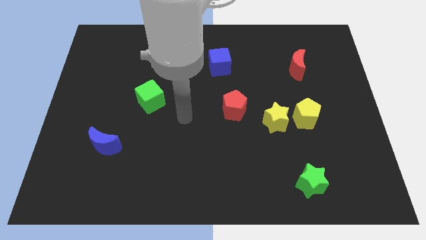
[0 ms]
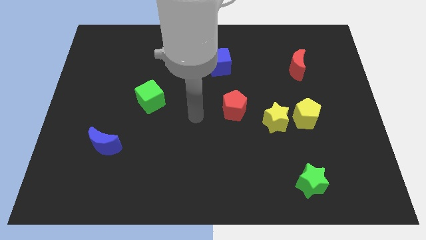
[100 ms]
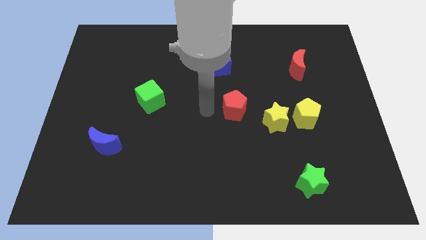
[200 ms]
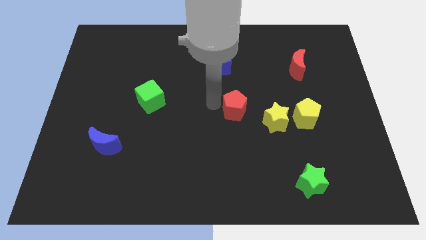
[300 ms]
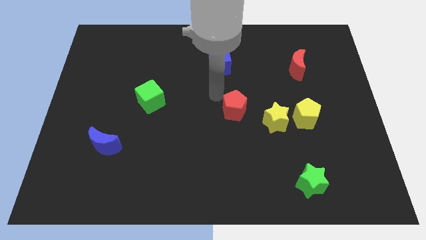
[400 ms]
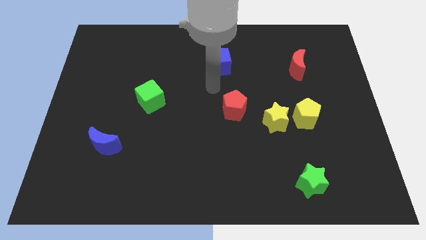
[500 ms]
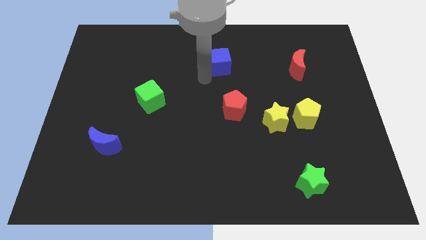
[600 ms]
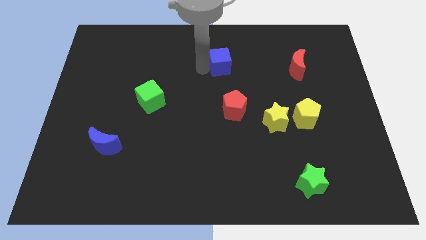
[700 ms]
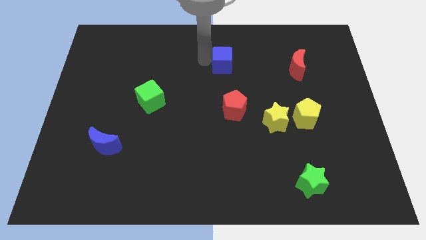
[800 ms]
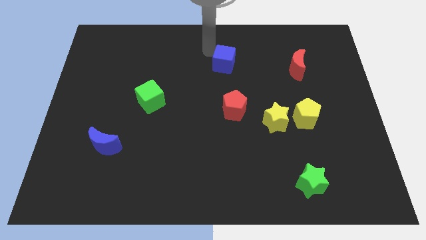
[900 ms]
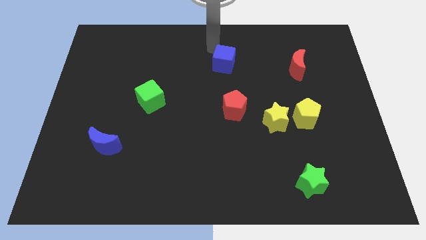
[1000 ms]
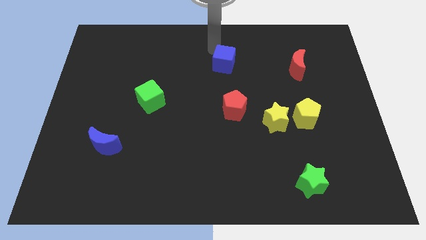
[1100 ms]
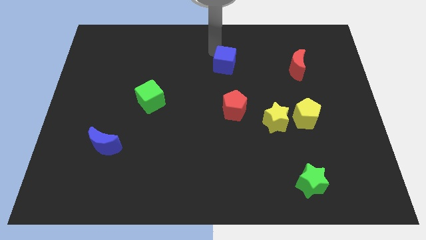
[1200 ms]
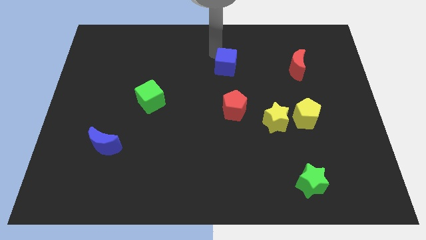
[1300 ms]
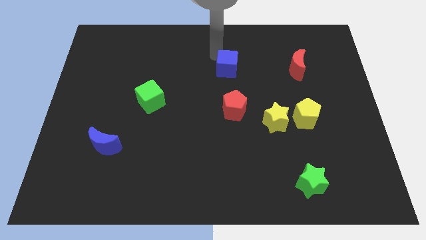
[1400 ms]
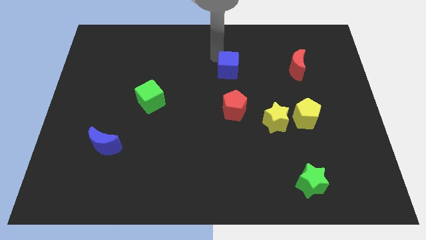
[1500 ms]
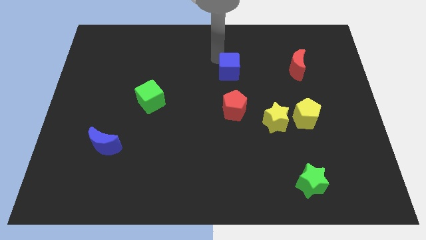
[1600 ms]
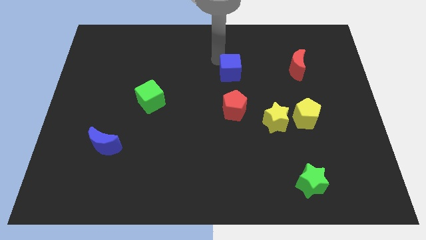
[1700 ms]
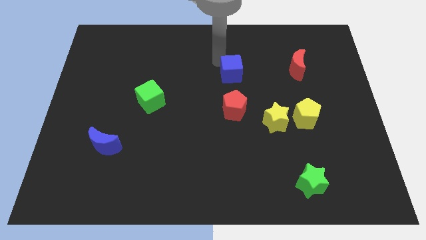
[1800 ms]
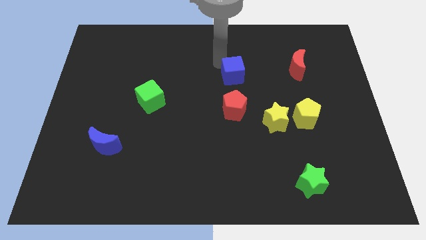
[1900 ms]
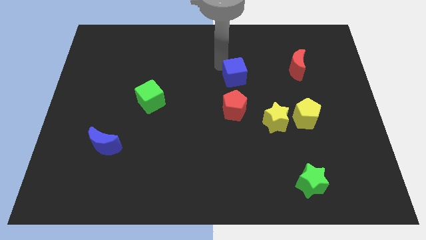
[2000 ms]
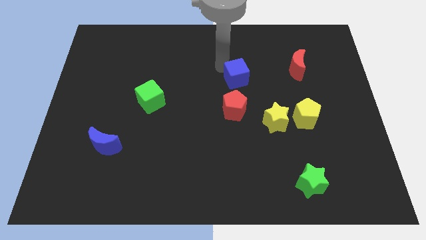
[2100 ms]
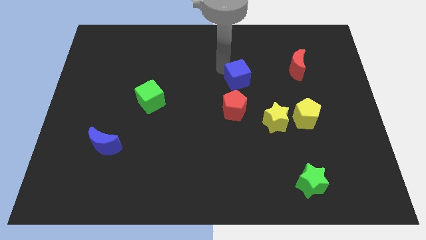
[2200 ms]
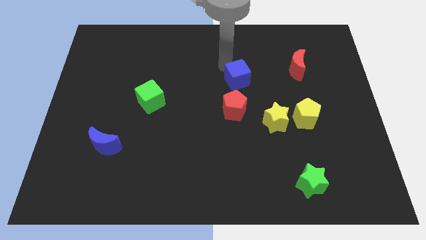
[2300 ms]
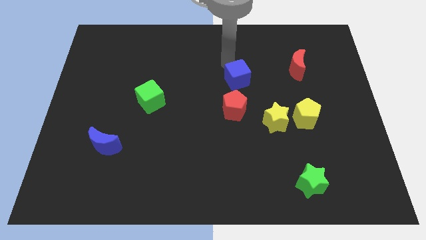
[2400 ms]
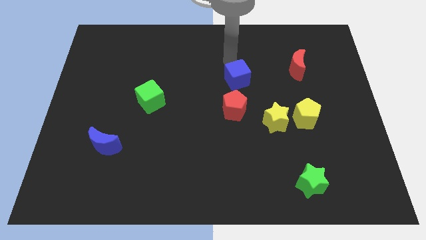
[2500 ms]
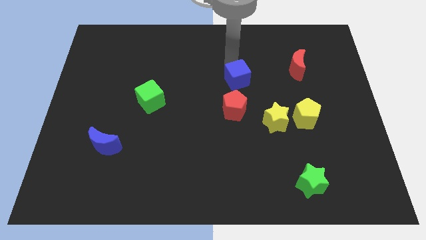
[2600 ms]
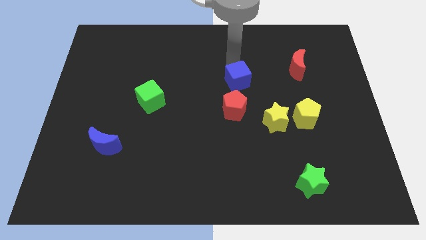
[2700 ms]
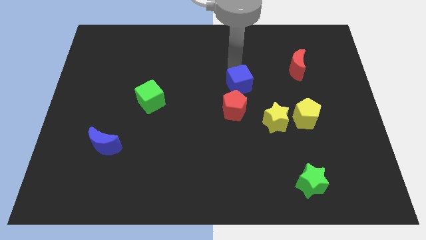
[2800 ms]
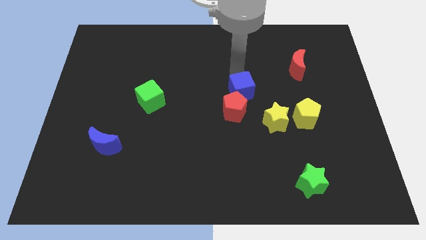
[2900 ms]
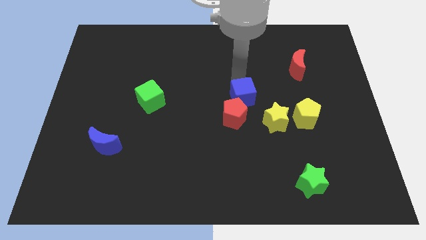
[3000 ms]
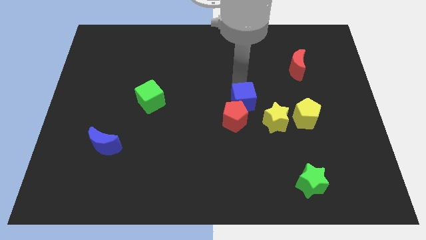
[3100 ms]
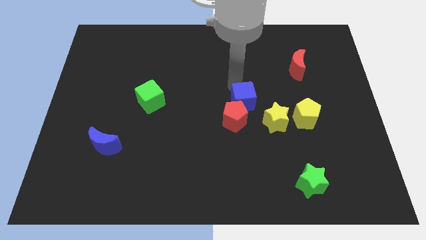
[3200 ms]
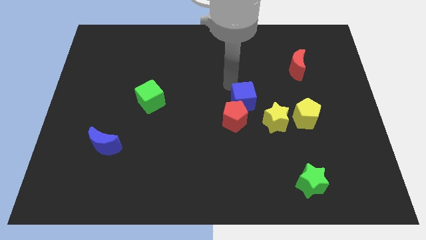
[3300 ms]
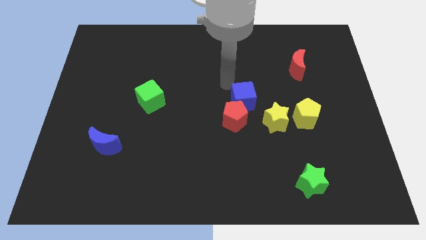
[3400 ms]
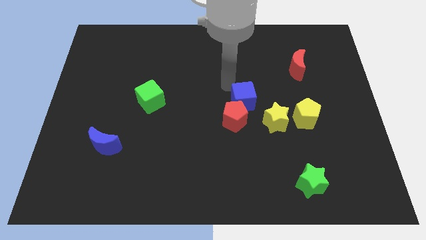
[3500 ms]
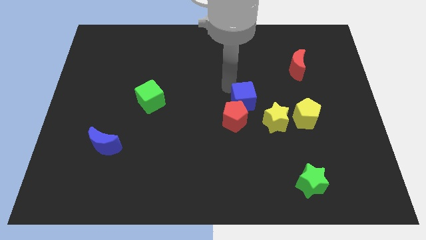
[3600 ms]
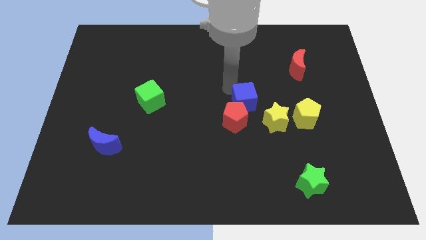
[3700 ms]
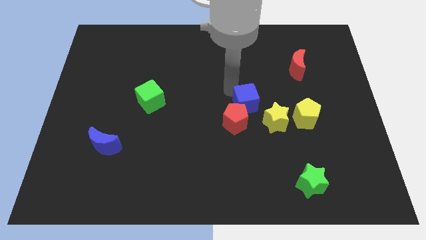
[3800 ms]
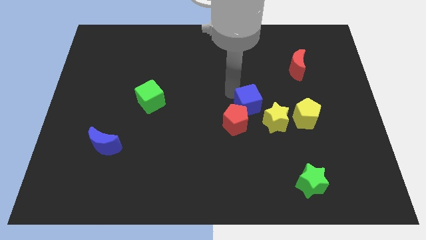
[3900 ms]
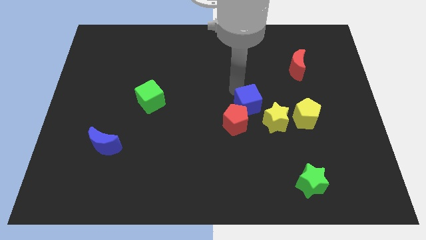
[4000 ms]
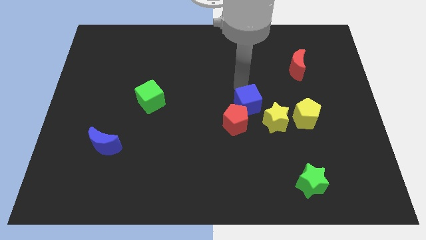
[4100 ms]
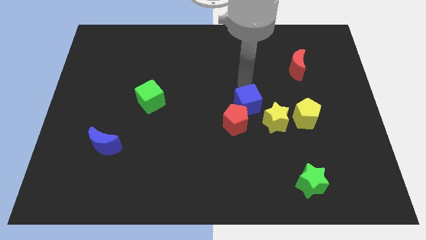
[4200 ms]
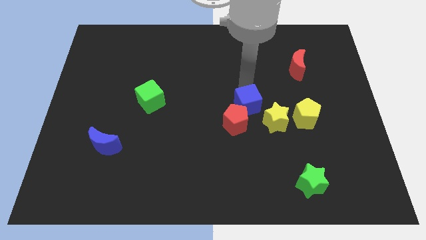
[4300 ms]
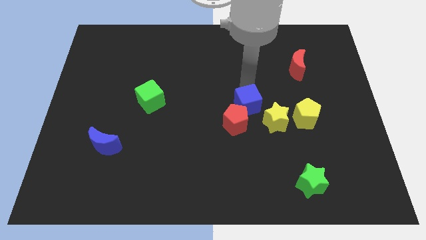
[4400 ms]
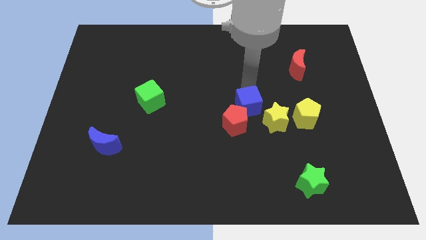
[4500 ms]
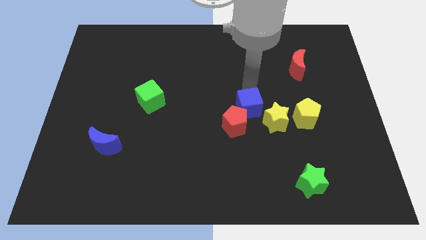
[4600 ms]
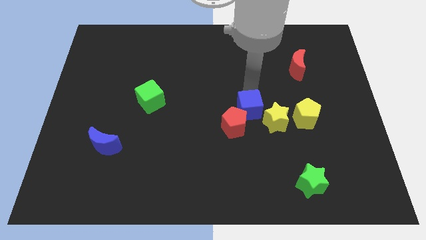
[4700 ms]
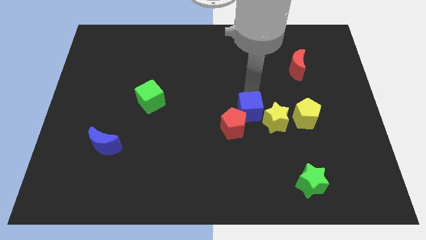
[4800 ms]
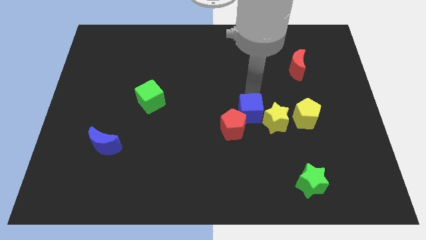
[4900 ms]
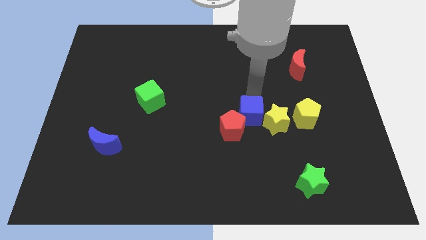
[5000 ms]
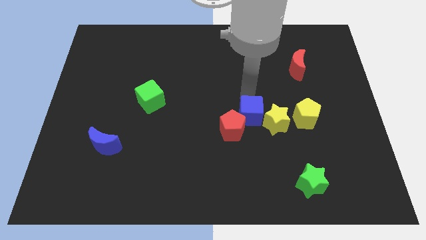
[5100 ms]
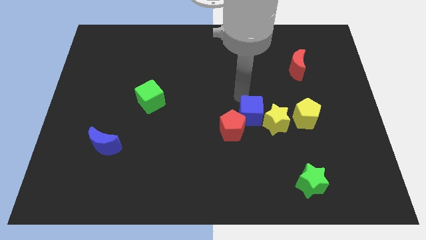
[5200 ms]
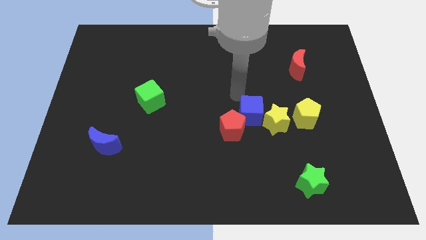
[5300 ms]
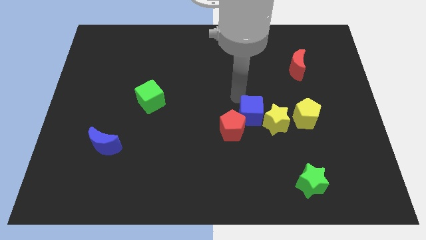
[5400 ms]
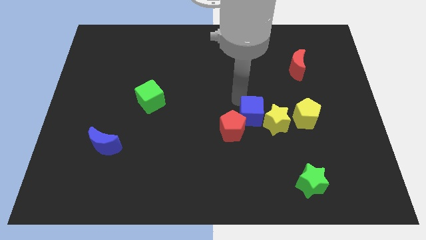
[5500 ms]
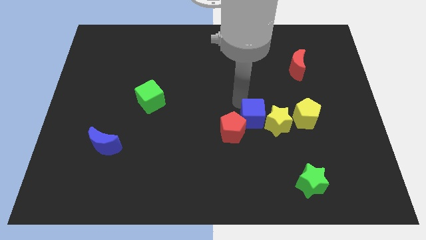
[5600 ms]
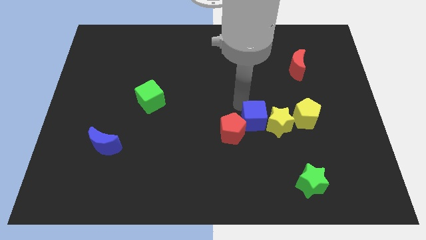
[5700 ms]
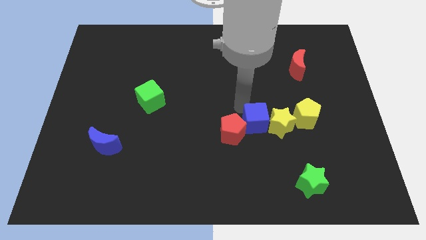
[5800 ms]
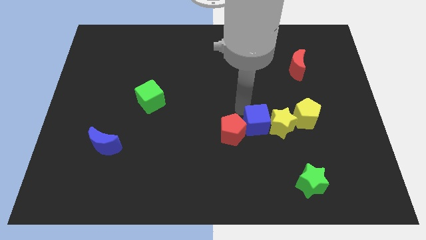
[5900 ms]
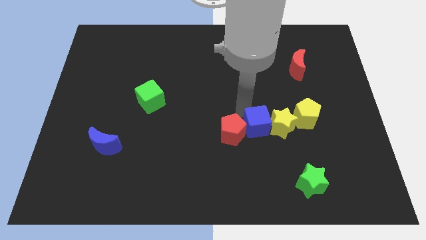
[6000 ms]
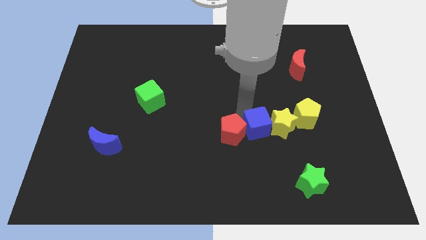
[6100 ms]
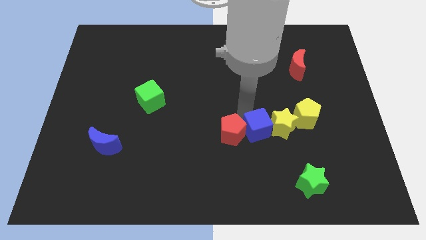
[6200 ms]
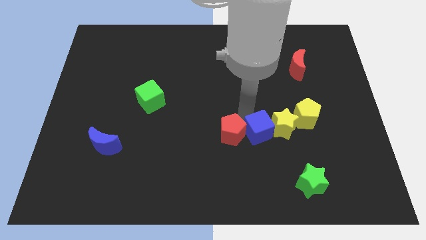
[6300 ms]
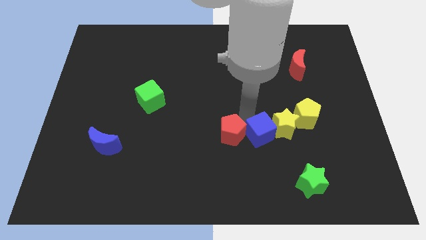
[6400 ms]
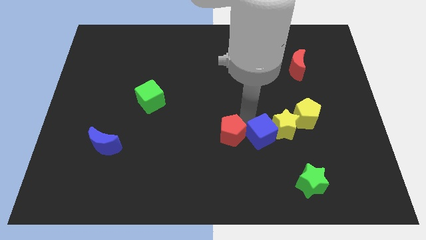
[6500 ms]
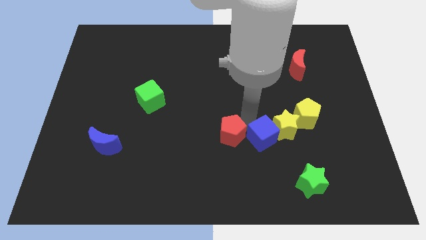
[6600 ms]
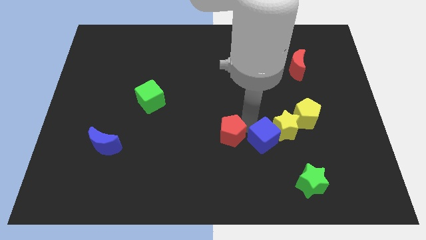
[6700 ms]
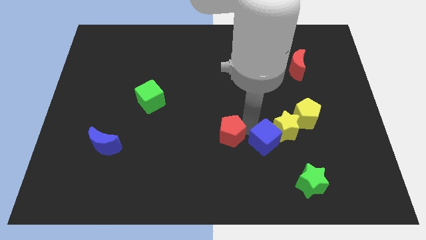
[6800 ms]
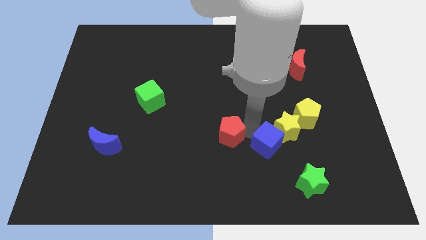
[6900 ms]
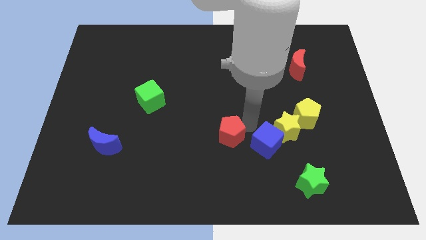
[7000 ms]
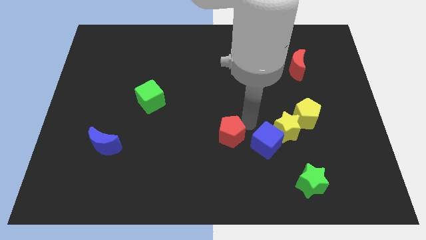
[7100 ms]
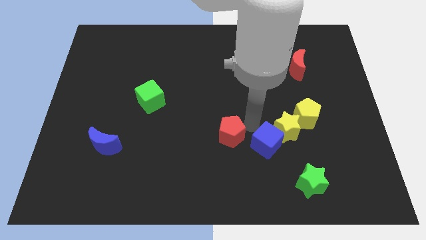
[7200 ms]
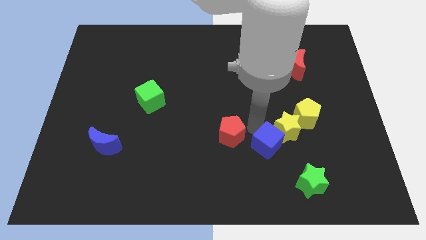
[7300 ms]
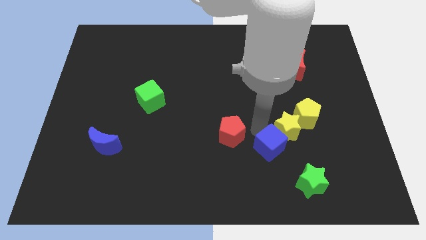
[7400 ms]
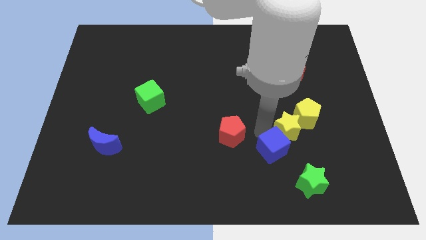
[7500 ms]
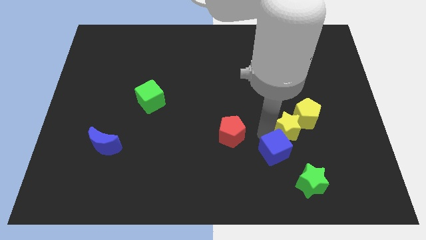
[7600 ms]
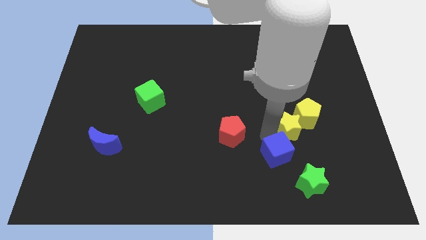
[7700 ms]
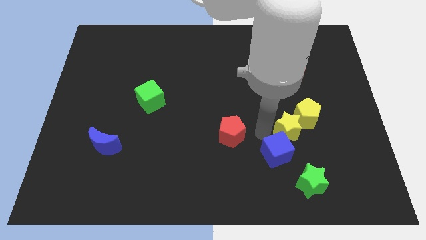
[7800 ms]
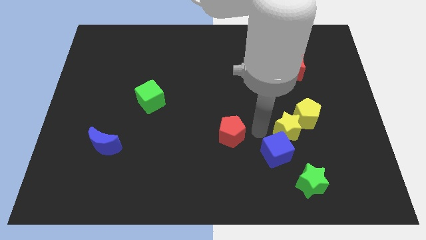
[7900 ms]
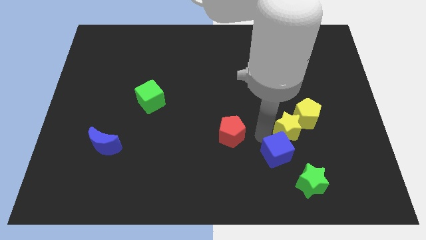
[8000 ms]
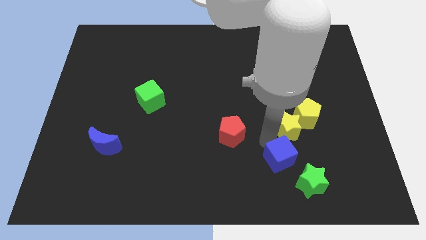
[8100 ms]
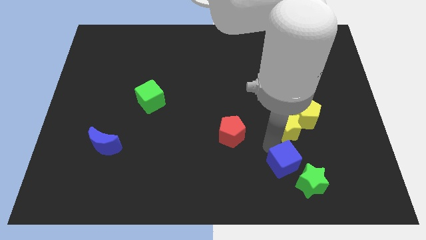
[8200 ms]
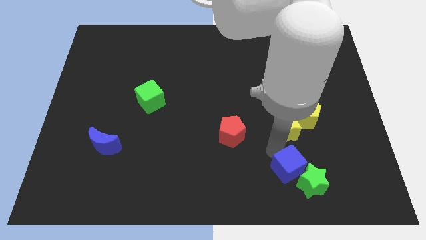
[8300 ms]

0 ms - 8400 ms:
move the blue cube close to the green star
